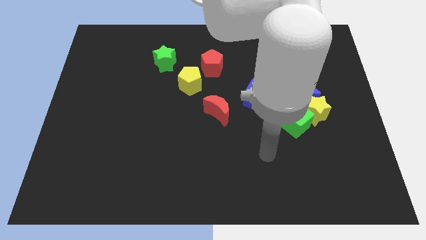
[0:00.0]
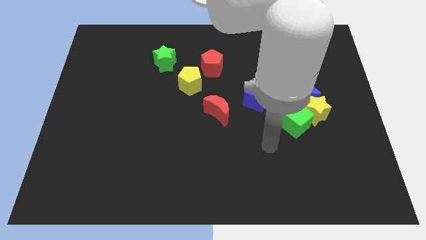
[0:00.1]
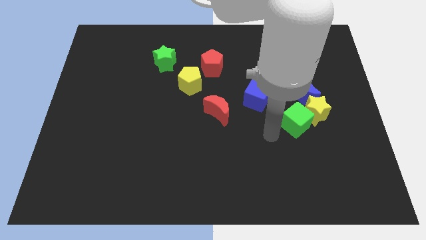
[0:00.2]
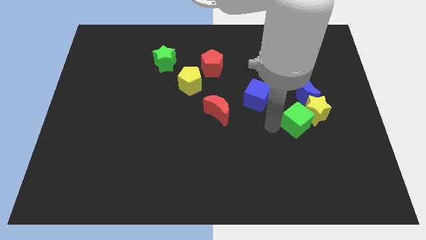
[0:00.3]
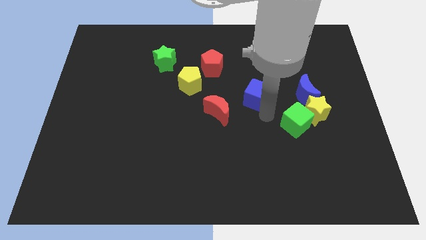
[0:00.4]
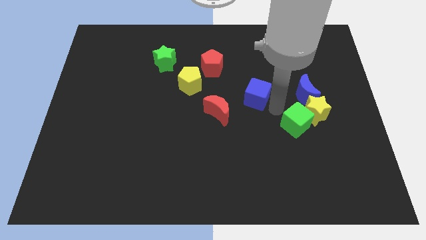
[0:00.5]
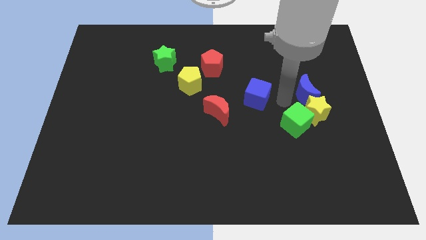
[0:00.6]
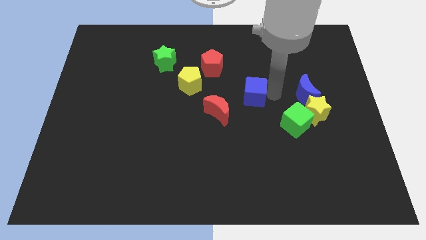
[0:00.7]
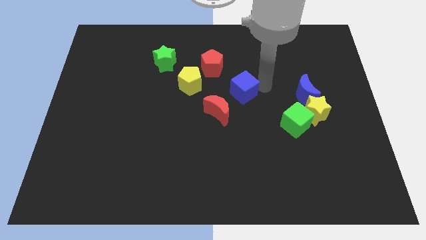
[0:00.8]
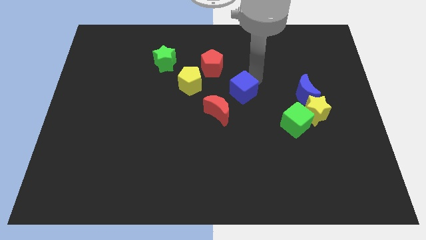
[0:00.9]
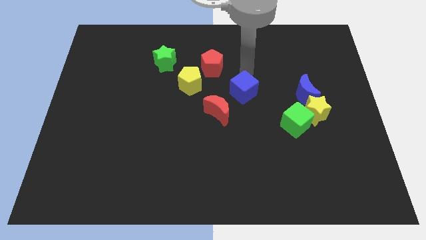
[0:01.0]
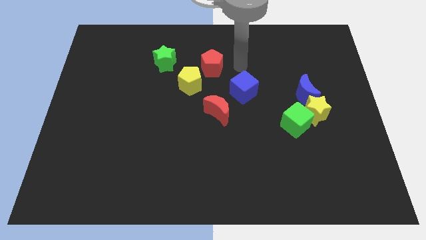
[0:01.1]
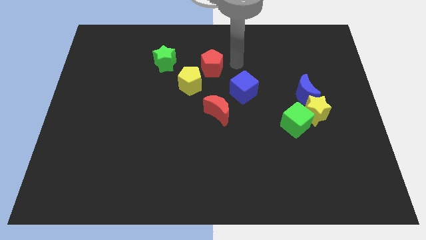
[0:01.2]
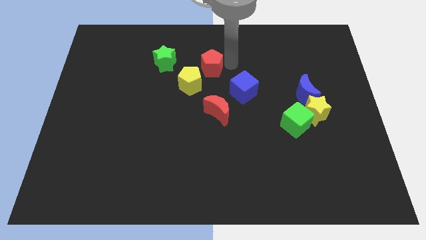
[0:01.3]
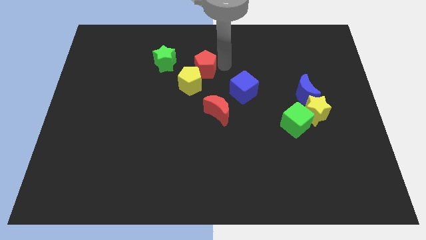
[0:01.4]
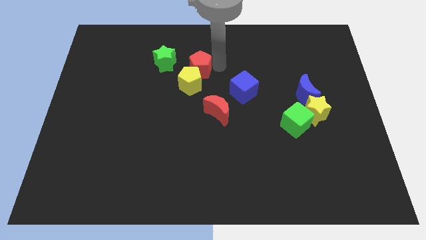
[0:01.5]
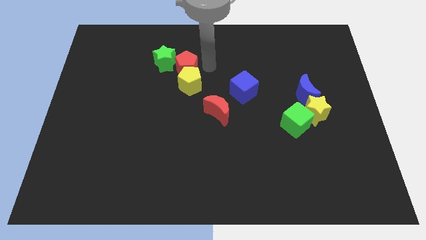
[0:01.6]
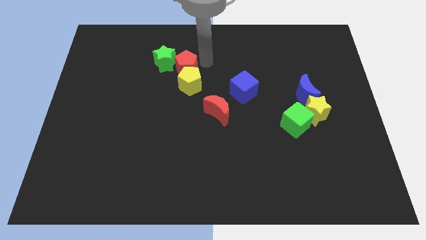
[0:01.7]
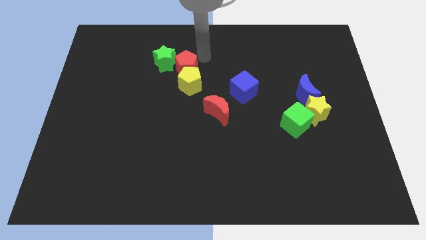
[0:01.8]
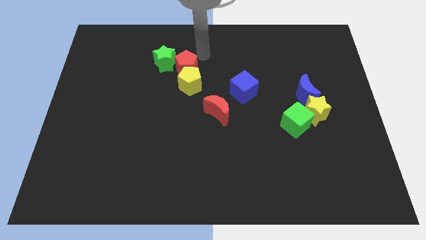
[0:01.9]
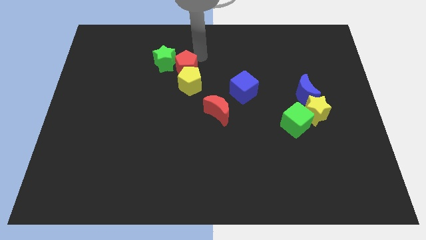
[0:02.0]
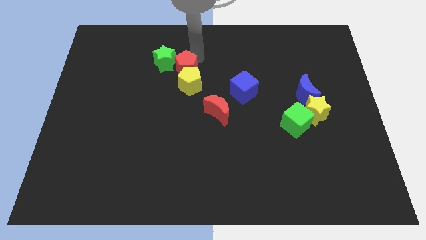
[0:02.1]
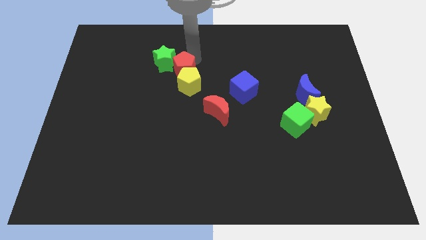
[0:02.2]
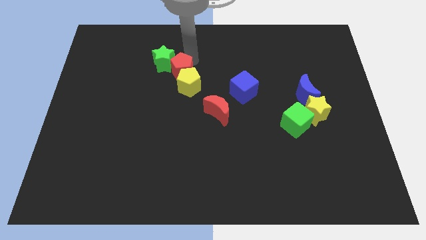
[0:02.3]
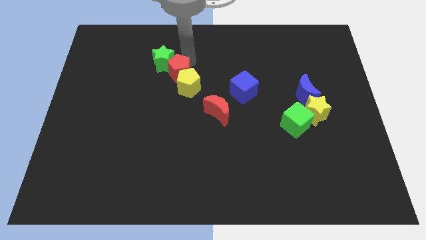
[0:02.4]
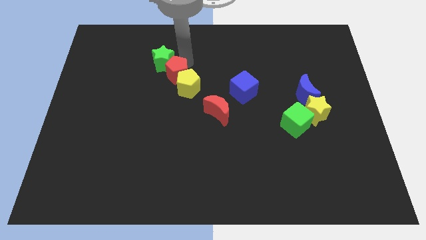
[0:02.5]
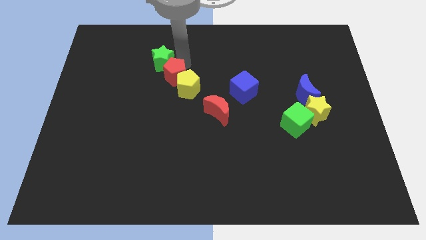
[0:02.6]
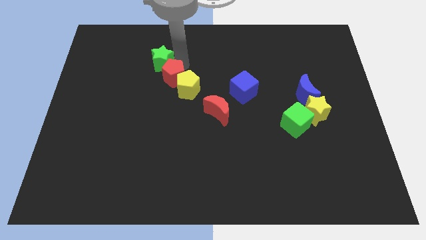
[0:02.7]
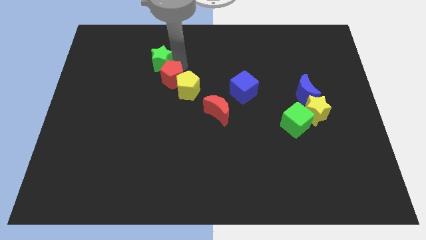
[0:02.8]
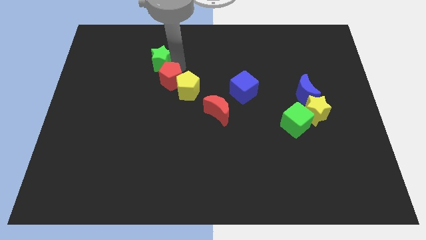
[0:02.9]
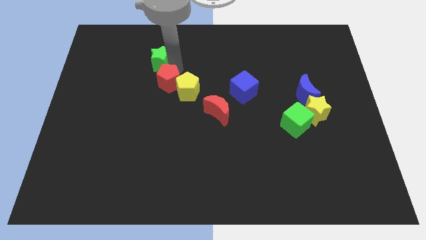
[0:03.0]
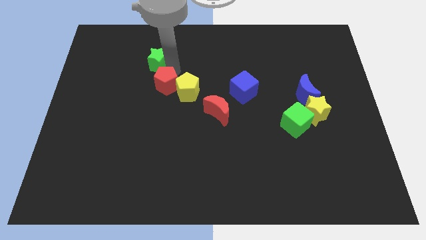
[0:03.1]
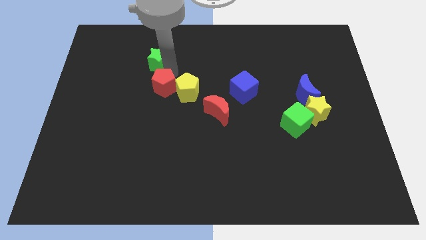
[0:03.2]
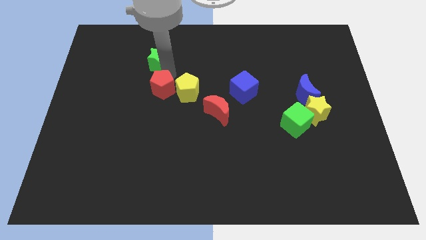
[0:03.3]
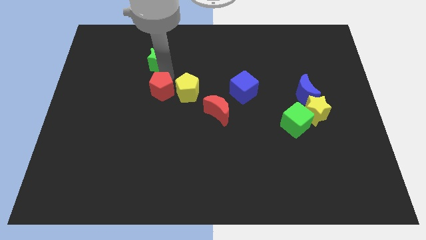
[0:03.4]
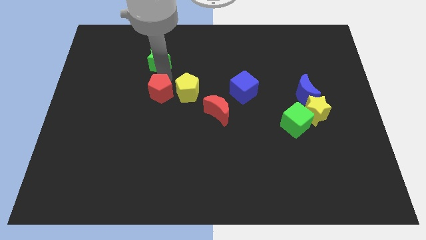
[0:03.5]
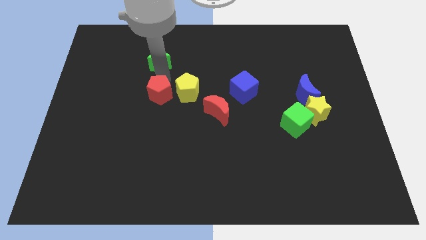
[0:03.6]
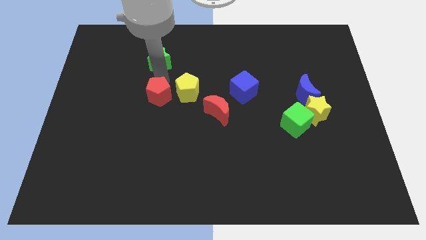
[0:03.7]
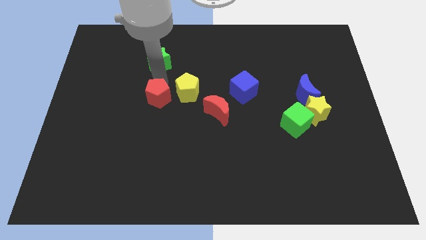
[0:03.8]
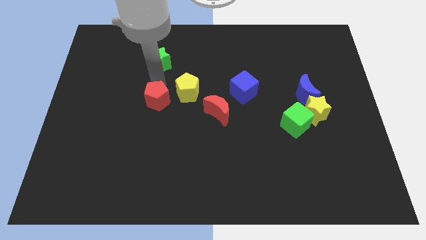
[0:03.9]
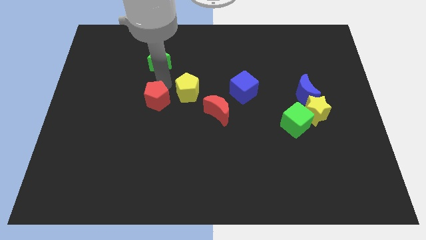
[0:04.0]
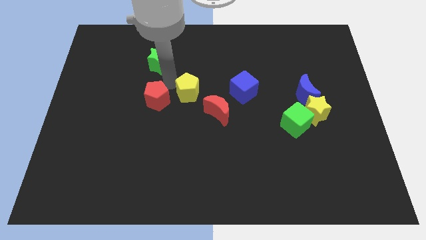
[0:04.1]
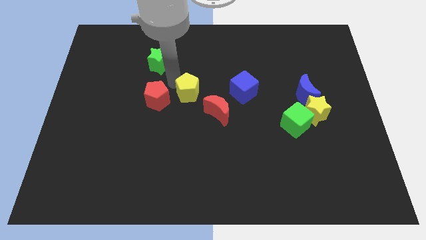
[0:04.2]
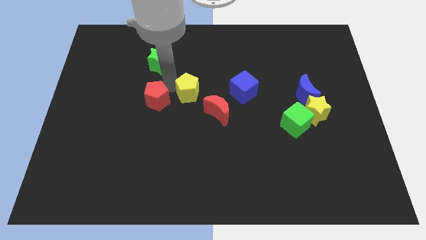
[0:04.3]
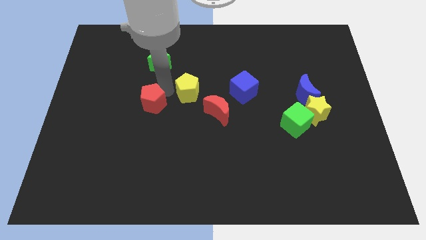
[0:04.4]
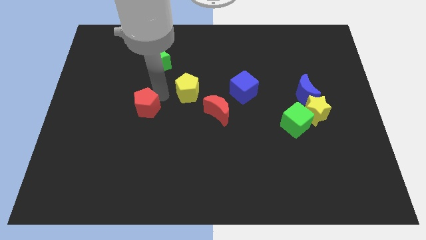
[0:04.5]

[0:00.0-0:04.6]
push the red pentagon down and to the left diagonally

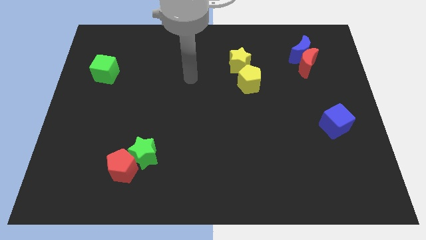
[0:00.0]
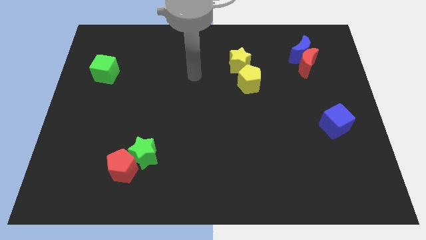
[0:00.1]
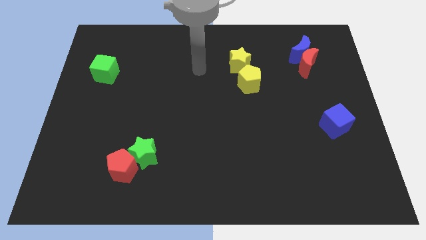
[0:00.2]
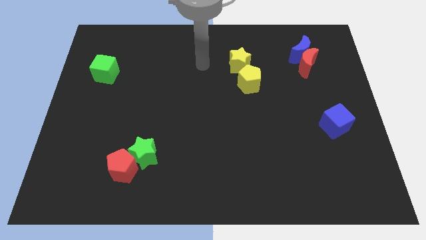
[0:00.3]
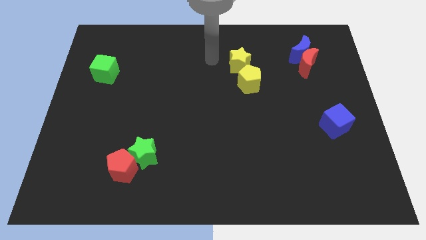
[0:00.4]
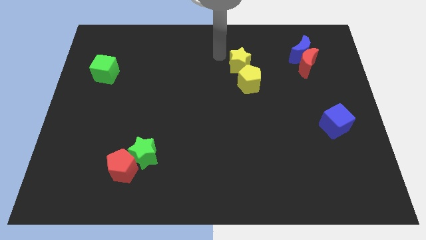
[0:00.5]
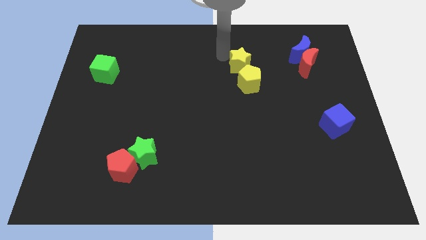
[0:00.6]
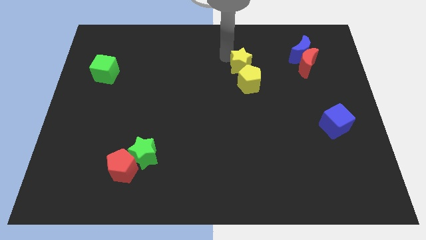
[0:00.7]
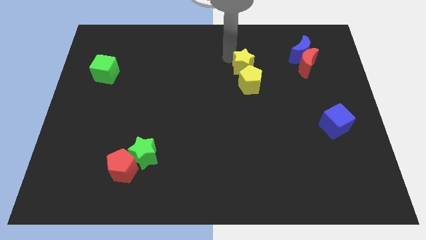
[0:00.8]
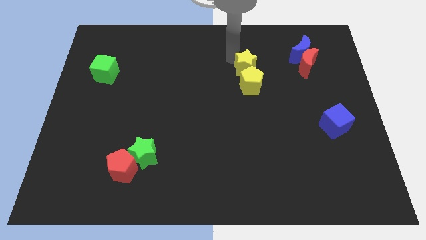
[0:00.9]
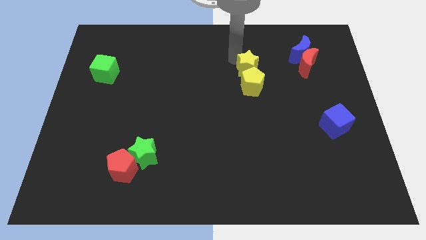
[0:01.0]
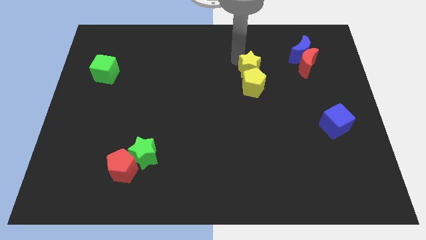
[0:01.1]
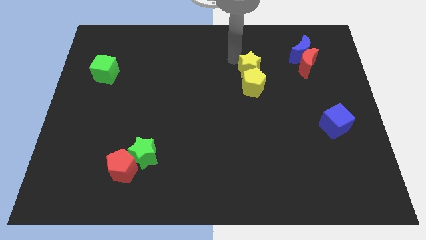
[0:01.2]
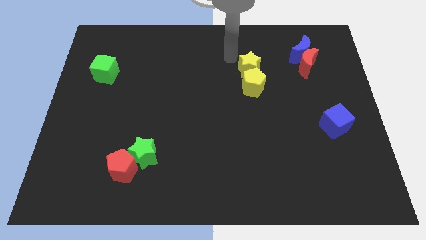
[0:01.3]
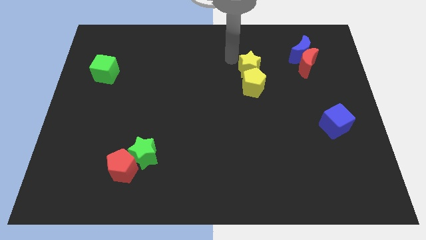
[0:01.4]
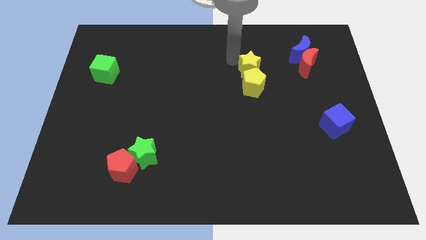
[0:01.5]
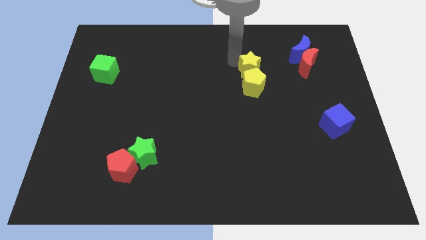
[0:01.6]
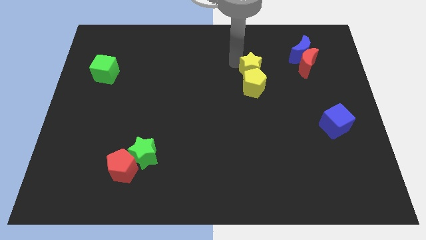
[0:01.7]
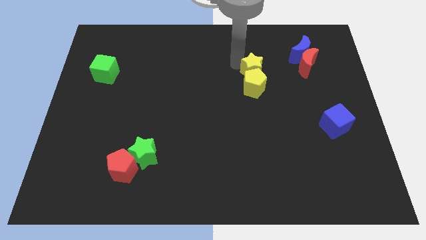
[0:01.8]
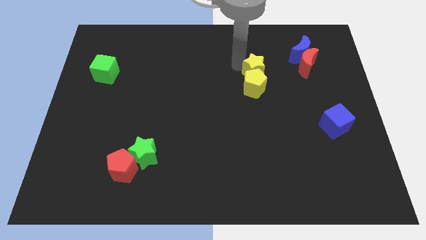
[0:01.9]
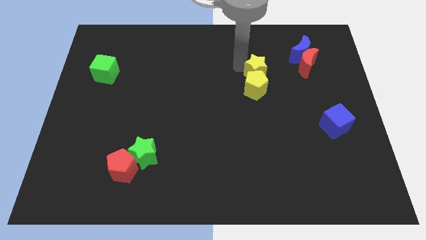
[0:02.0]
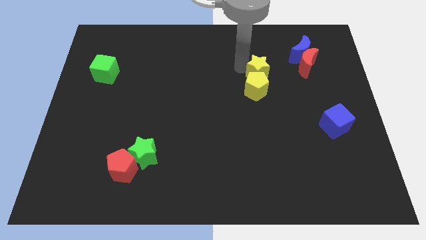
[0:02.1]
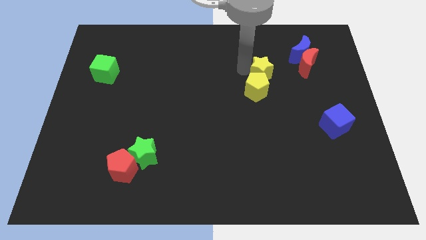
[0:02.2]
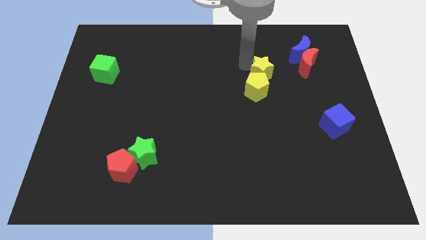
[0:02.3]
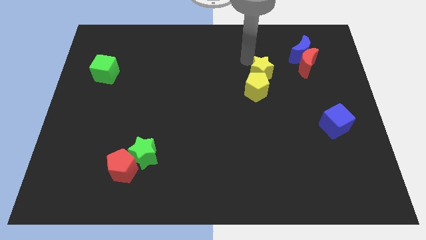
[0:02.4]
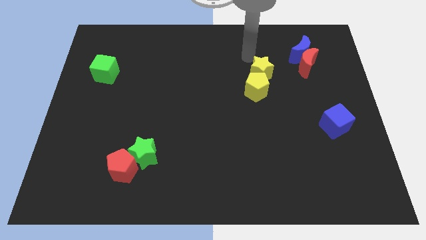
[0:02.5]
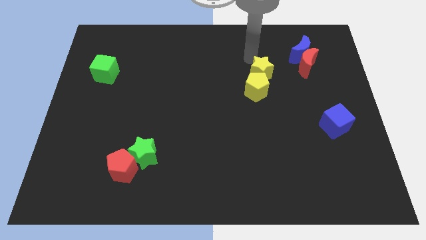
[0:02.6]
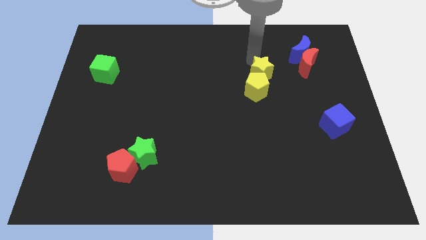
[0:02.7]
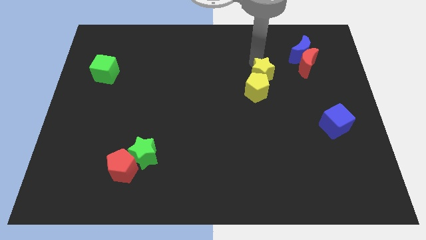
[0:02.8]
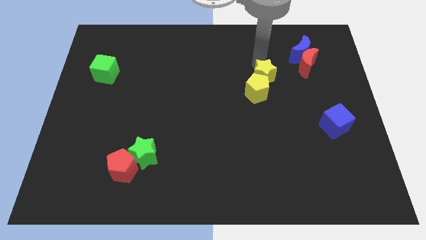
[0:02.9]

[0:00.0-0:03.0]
move the yellow star diagonally down and right a bit

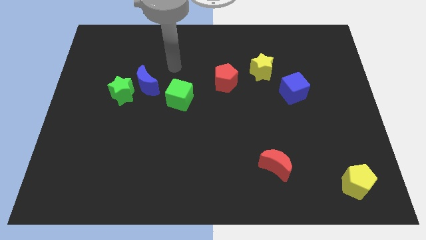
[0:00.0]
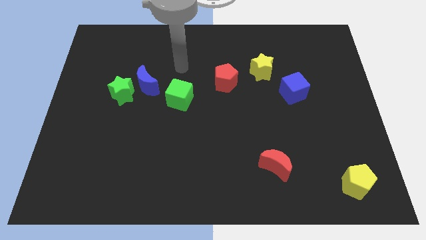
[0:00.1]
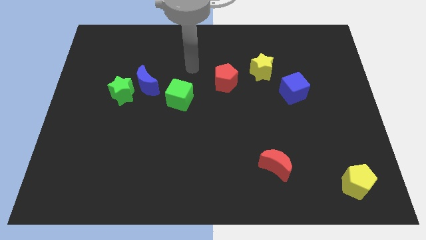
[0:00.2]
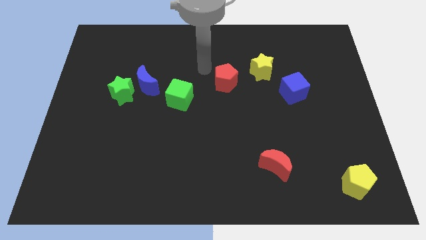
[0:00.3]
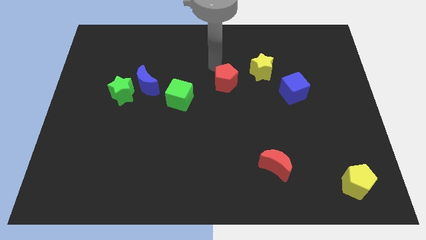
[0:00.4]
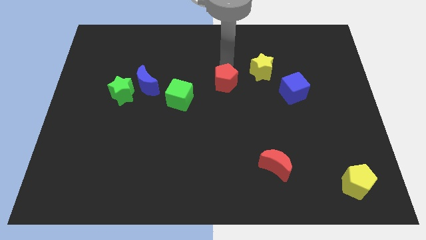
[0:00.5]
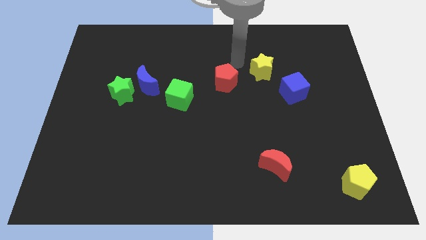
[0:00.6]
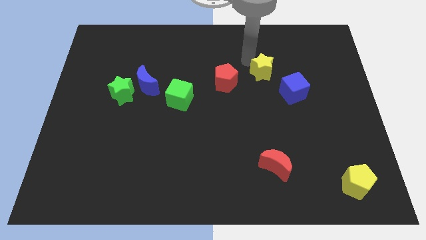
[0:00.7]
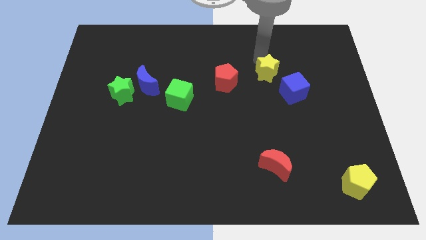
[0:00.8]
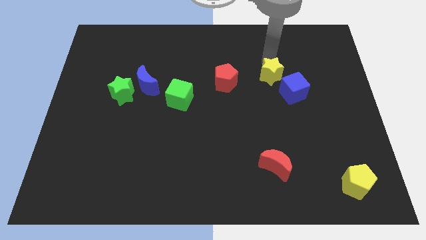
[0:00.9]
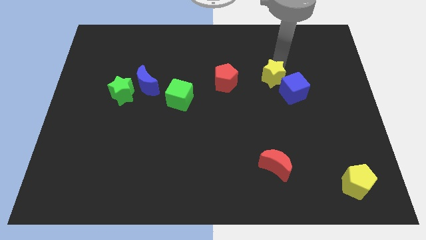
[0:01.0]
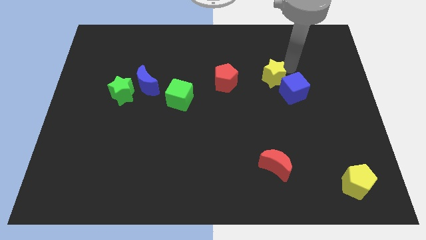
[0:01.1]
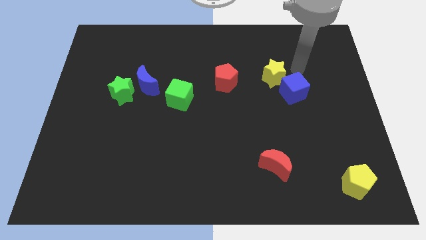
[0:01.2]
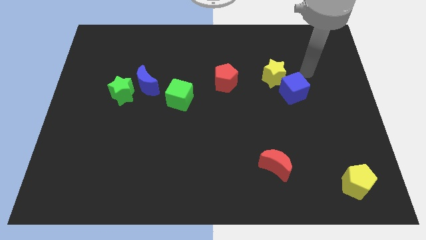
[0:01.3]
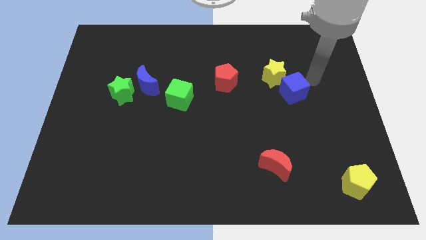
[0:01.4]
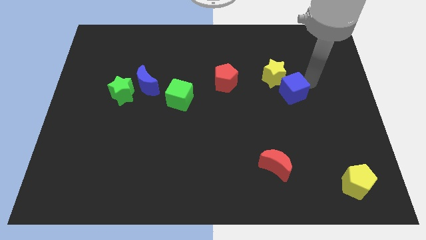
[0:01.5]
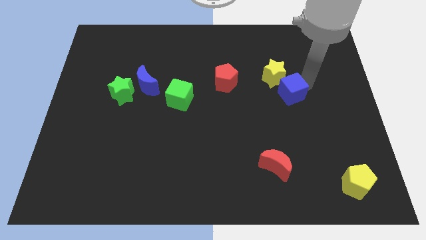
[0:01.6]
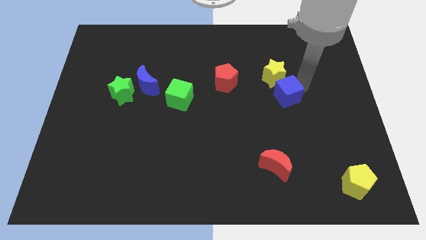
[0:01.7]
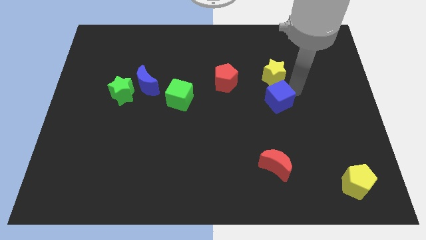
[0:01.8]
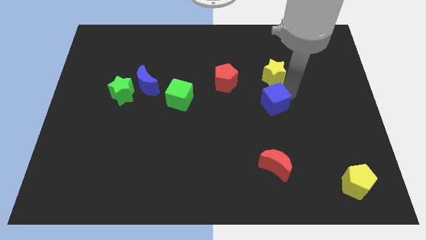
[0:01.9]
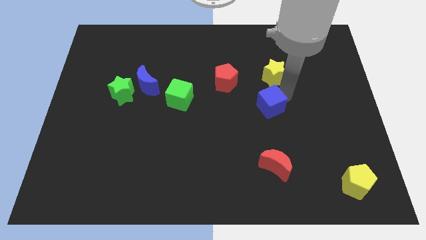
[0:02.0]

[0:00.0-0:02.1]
slightly push the blue cube downwards and then left
